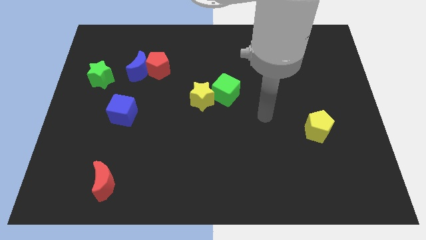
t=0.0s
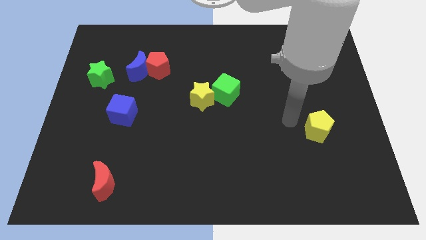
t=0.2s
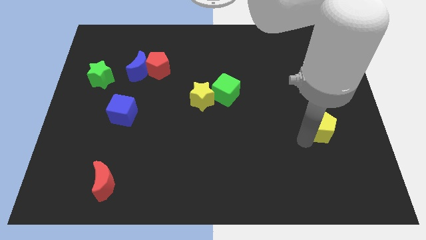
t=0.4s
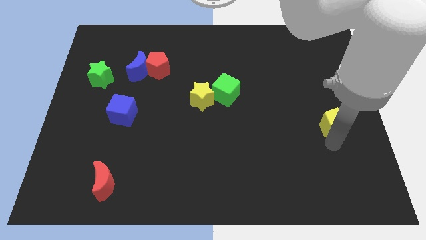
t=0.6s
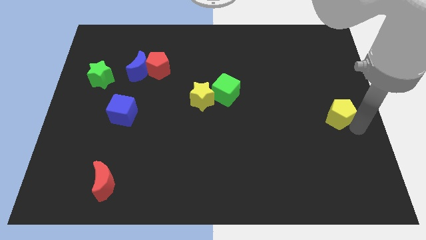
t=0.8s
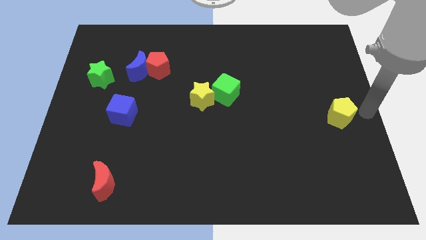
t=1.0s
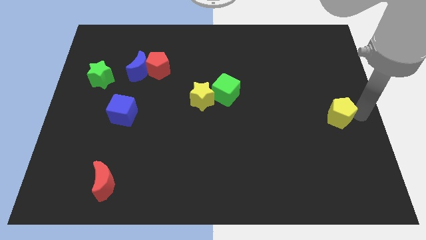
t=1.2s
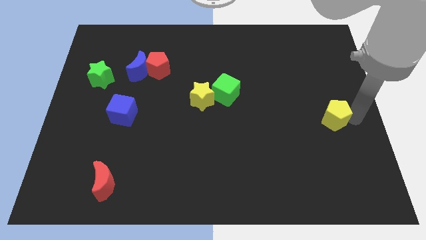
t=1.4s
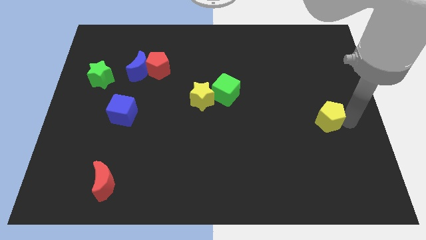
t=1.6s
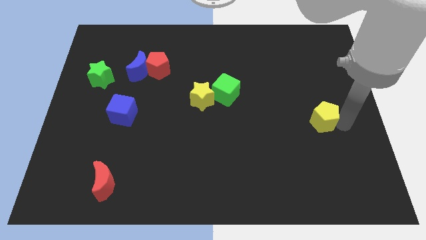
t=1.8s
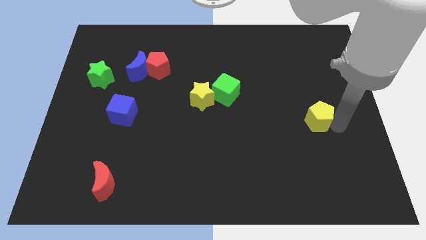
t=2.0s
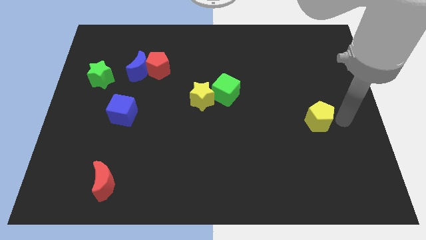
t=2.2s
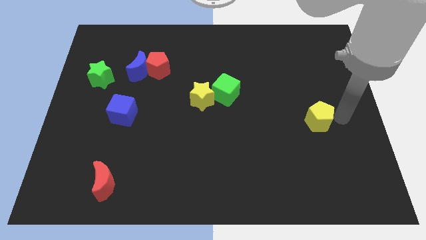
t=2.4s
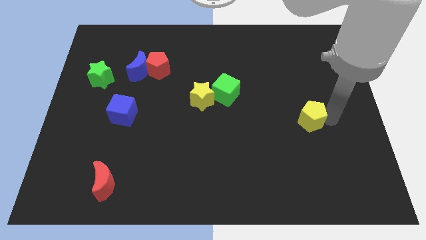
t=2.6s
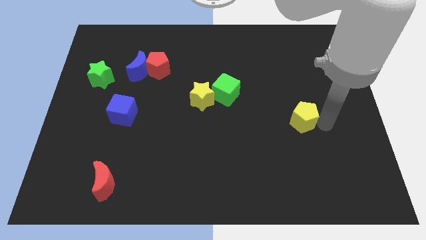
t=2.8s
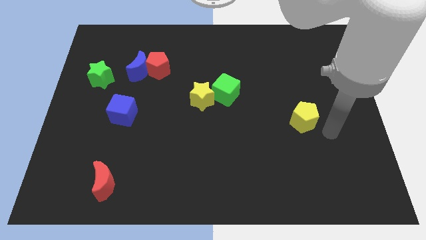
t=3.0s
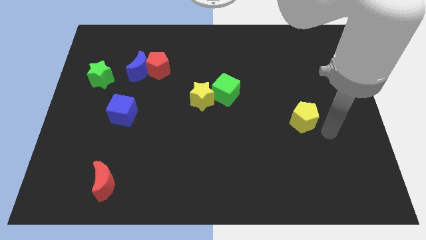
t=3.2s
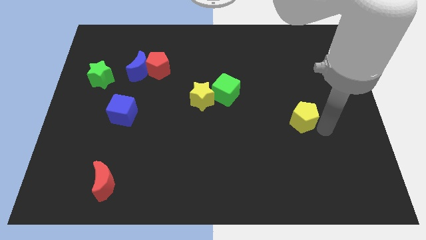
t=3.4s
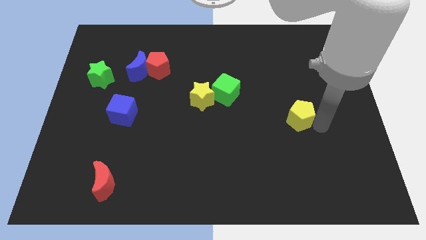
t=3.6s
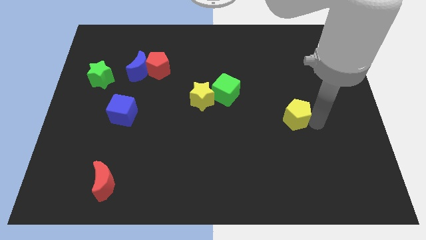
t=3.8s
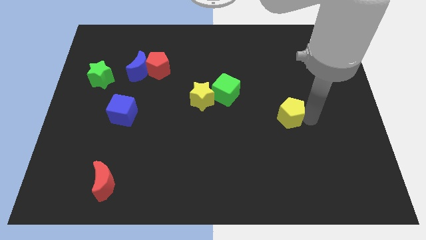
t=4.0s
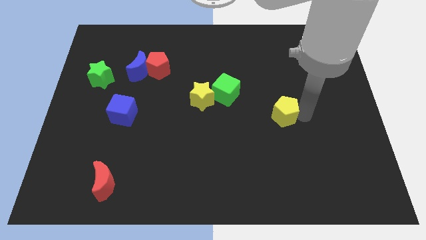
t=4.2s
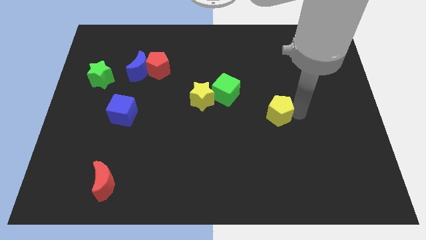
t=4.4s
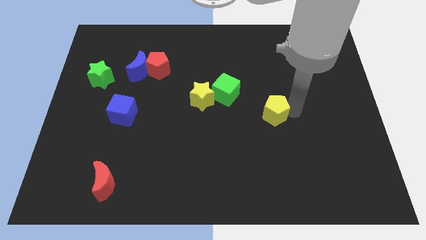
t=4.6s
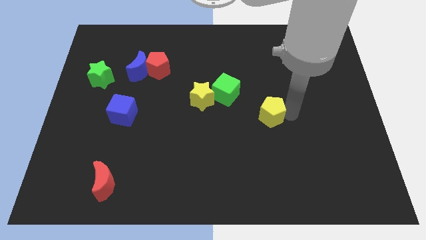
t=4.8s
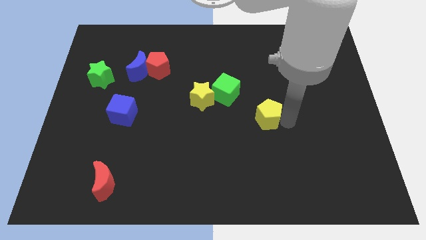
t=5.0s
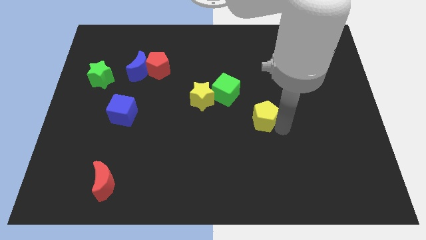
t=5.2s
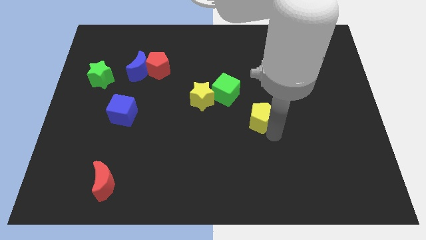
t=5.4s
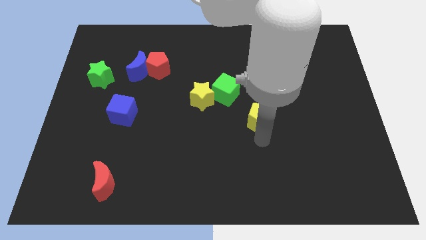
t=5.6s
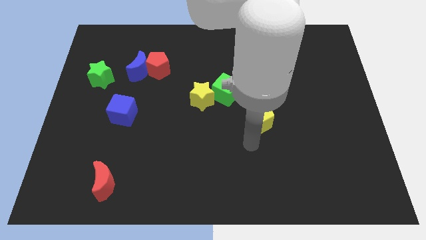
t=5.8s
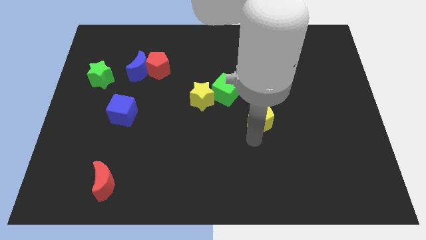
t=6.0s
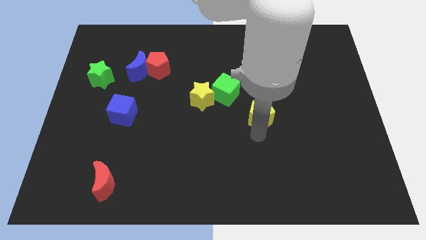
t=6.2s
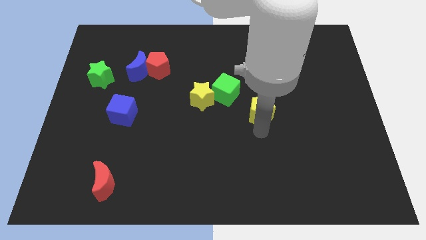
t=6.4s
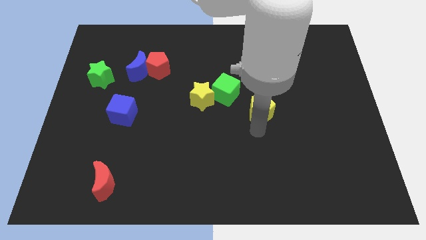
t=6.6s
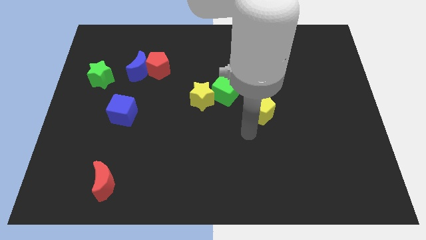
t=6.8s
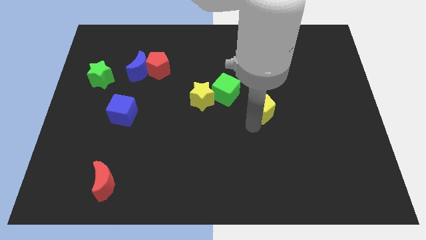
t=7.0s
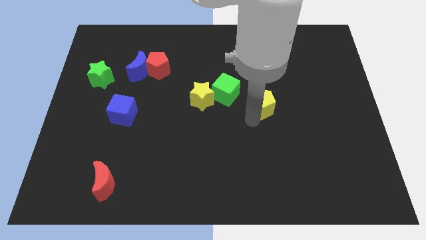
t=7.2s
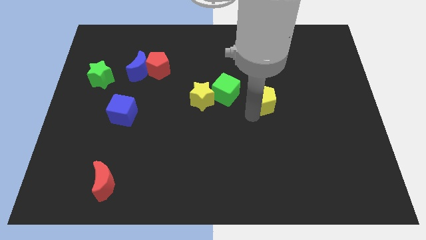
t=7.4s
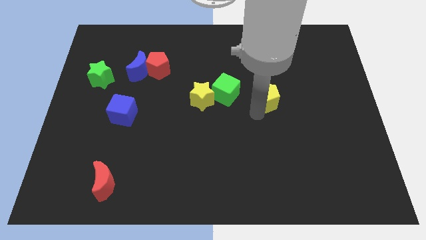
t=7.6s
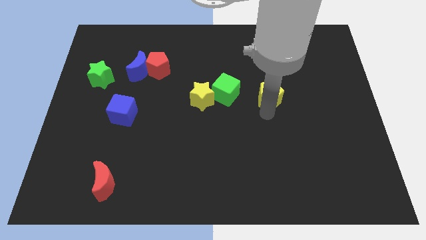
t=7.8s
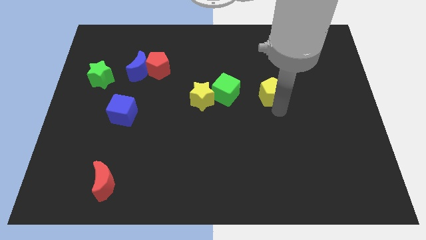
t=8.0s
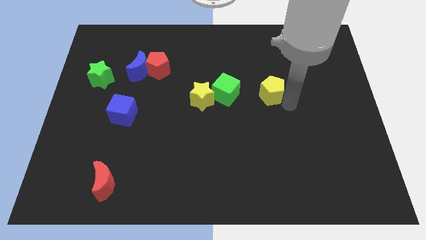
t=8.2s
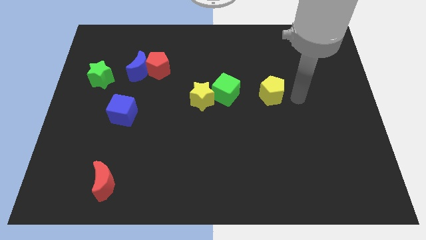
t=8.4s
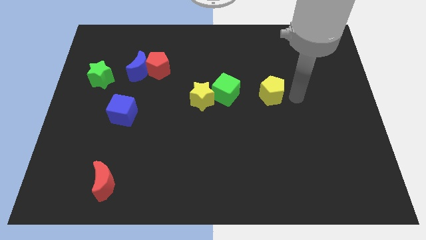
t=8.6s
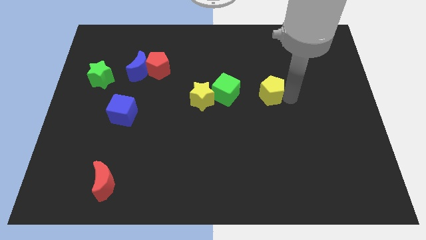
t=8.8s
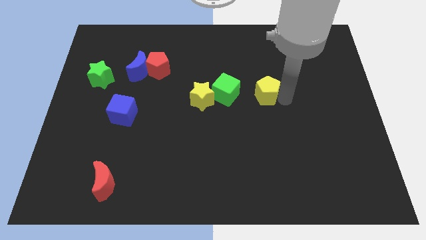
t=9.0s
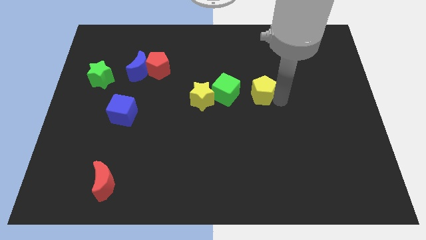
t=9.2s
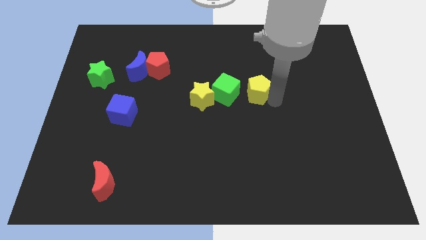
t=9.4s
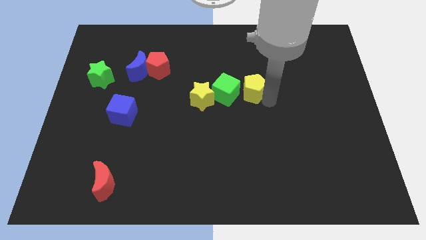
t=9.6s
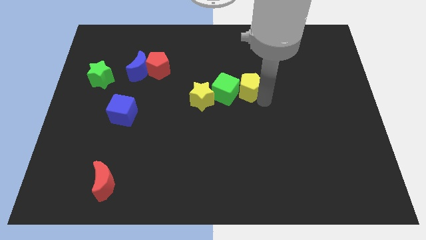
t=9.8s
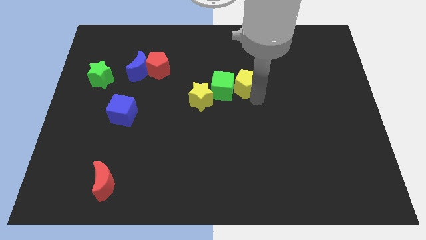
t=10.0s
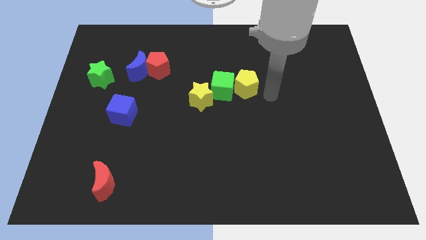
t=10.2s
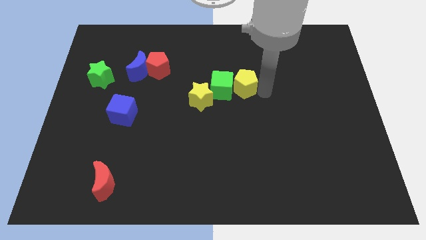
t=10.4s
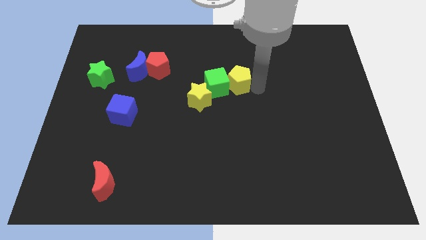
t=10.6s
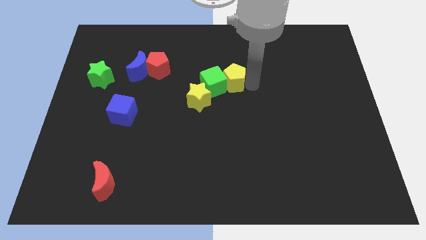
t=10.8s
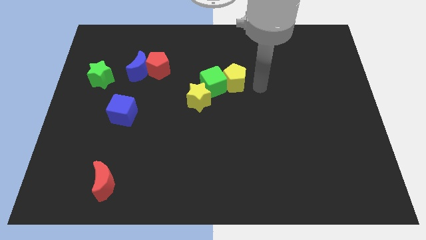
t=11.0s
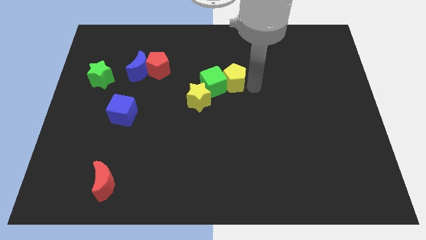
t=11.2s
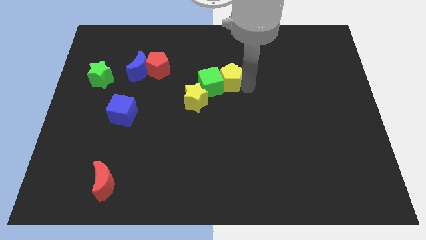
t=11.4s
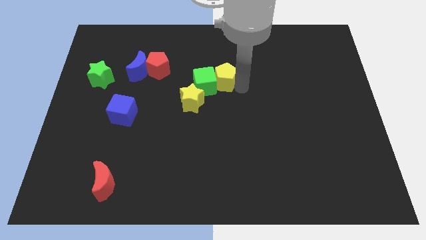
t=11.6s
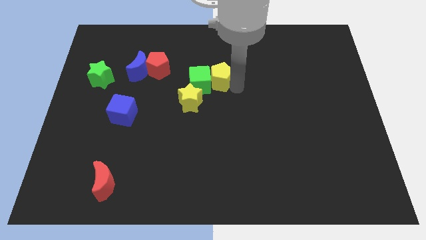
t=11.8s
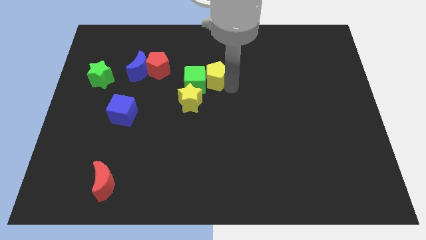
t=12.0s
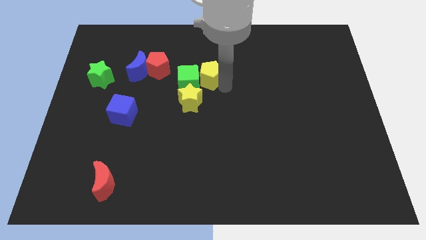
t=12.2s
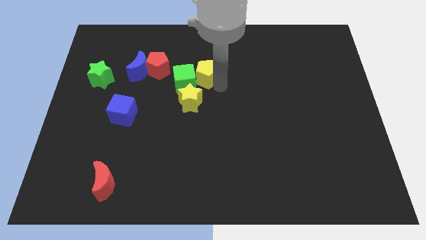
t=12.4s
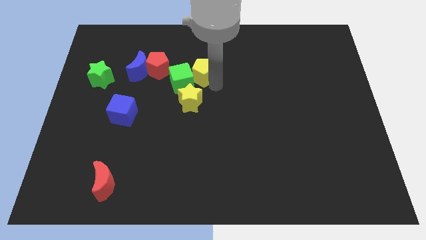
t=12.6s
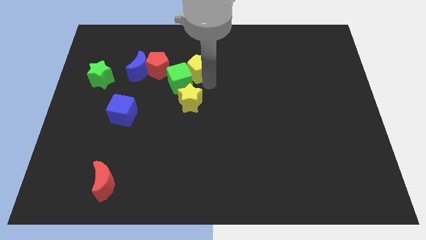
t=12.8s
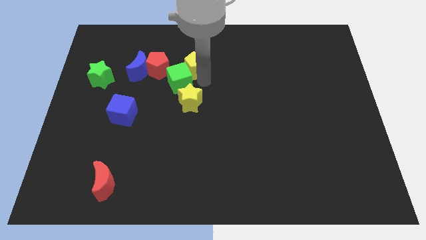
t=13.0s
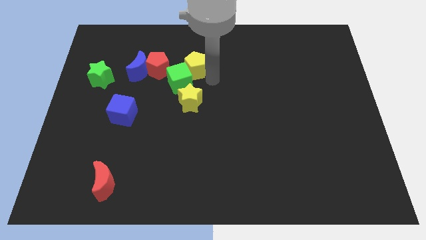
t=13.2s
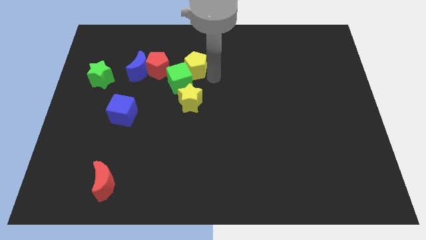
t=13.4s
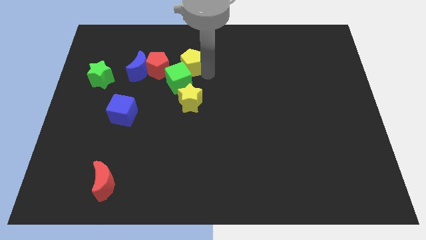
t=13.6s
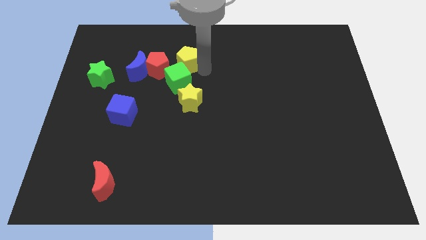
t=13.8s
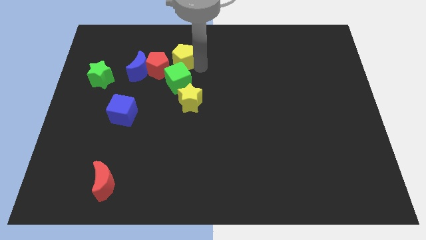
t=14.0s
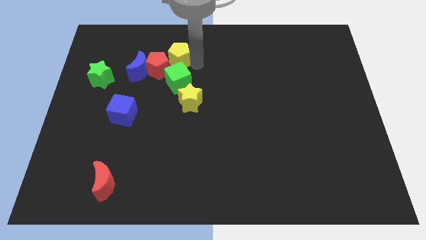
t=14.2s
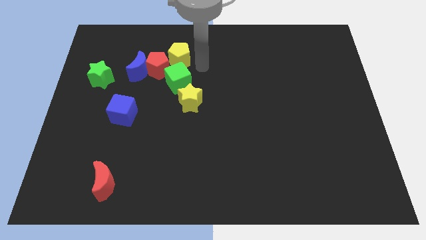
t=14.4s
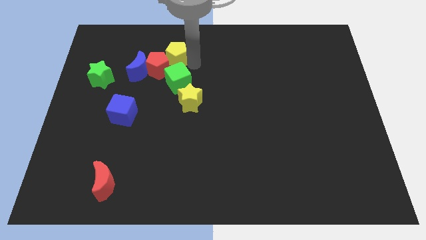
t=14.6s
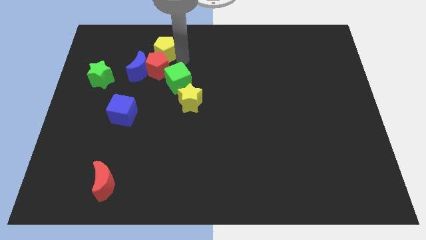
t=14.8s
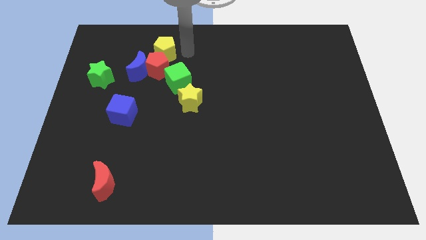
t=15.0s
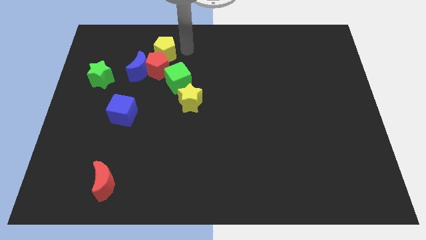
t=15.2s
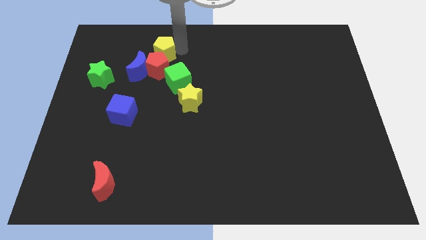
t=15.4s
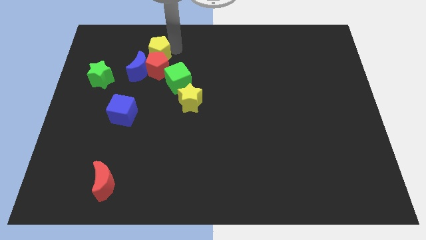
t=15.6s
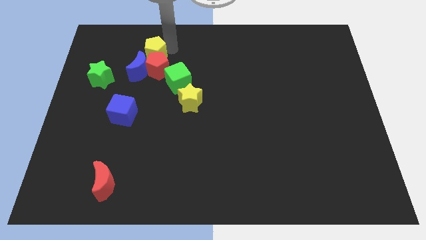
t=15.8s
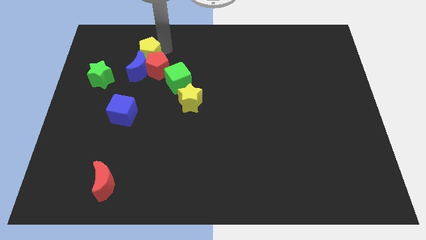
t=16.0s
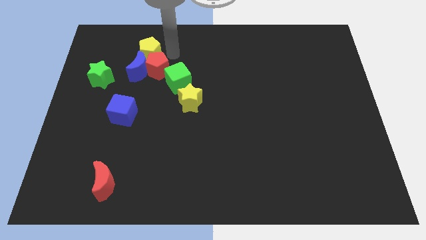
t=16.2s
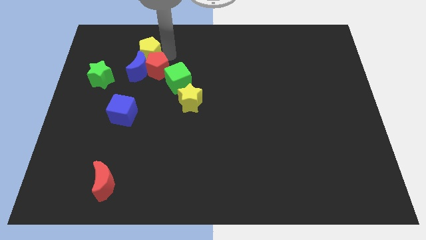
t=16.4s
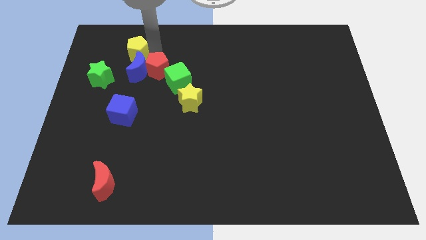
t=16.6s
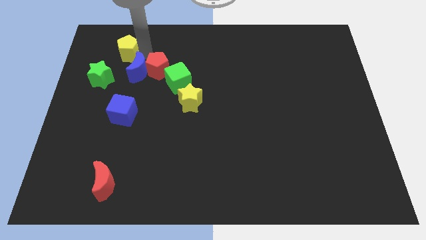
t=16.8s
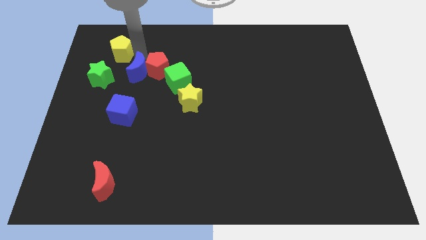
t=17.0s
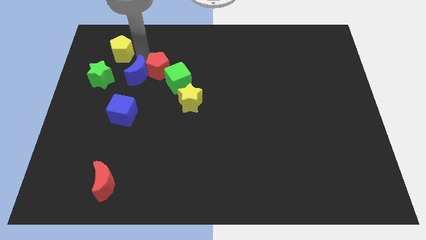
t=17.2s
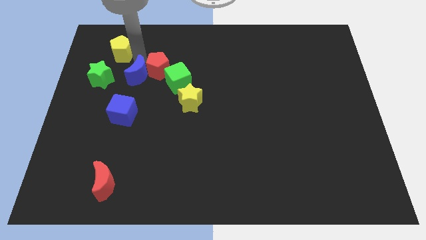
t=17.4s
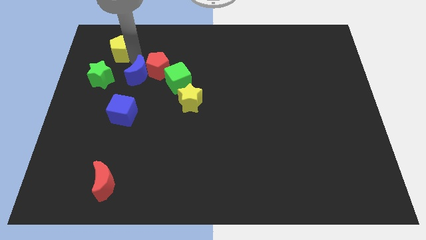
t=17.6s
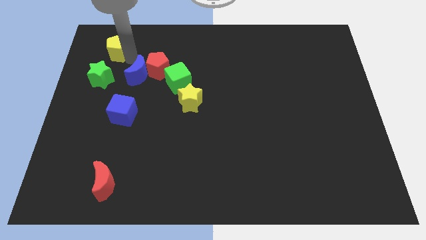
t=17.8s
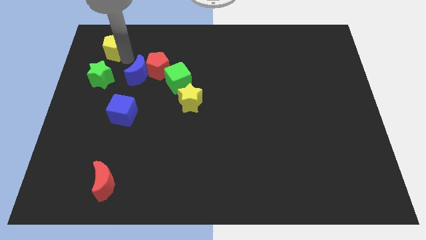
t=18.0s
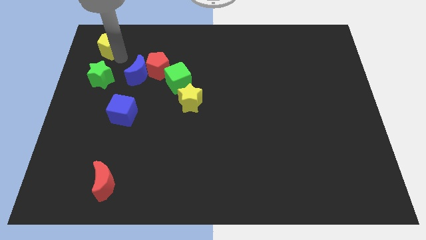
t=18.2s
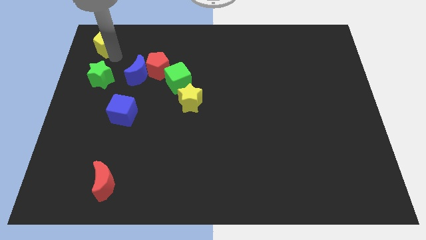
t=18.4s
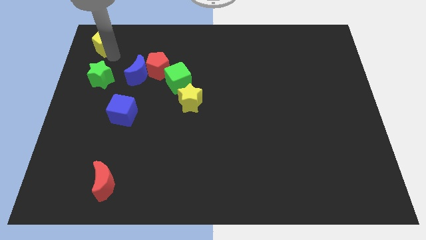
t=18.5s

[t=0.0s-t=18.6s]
put the yellow pentagon to the top left
